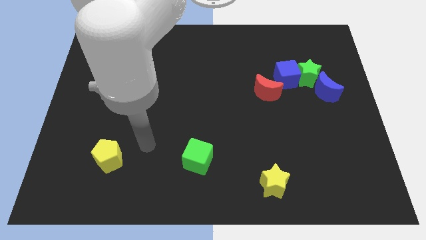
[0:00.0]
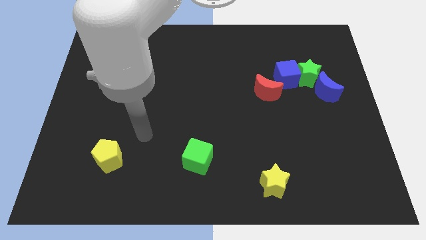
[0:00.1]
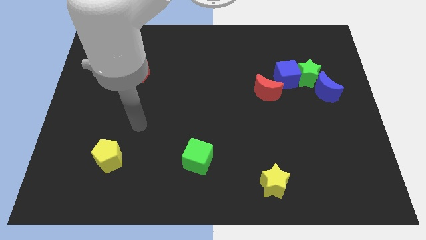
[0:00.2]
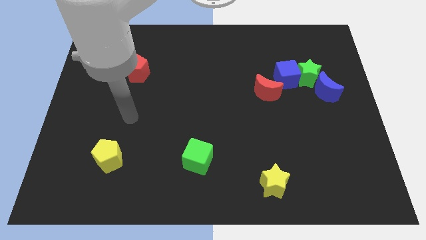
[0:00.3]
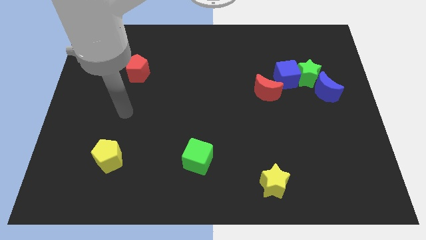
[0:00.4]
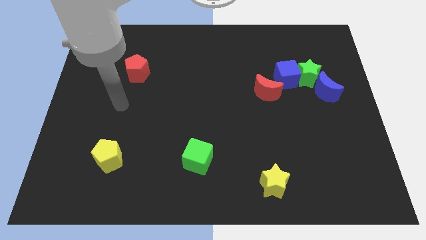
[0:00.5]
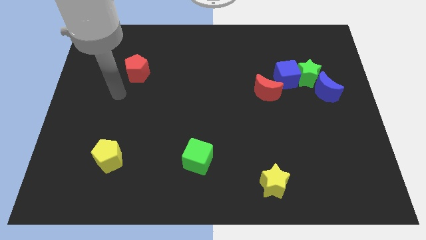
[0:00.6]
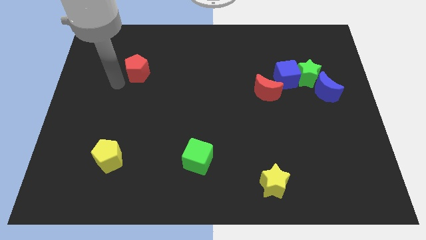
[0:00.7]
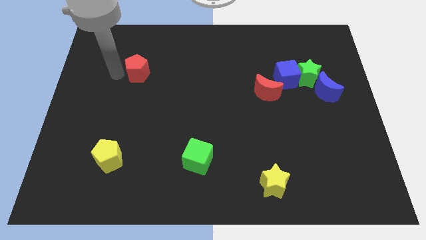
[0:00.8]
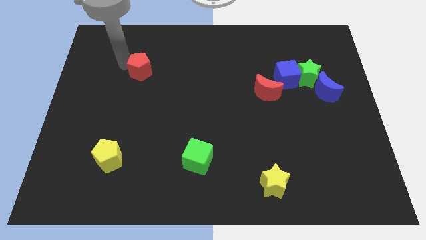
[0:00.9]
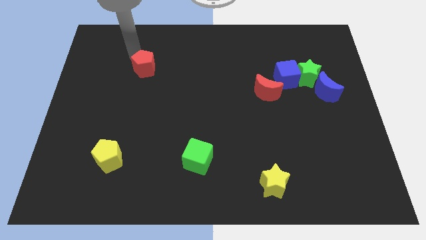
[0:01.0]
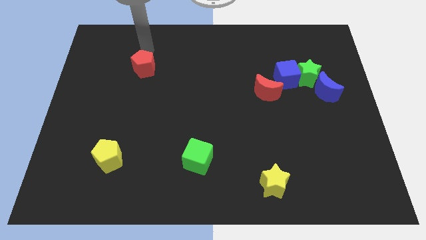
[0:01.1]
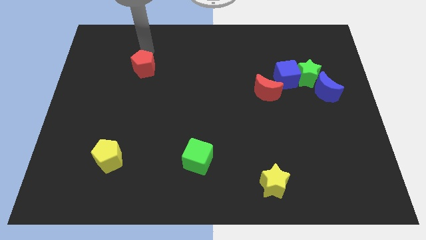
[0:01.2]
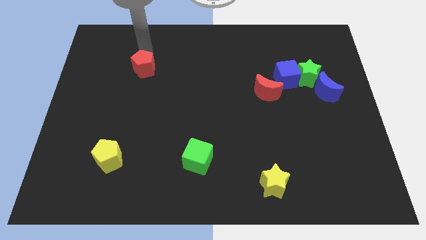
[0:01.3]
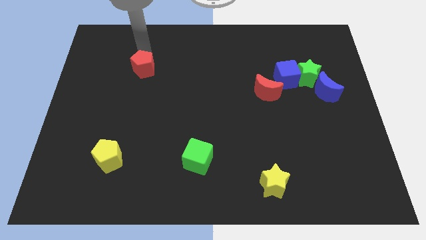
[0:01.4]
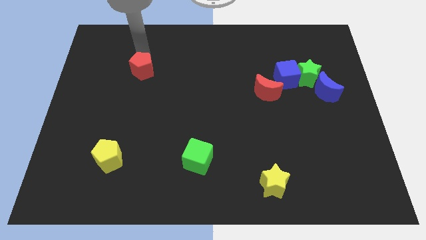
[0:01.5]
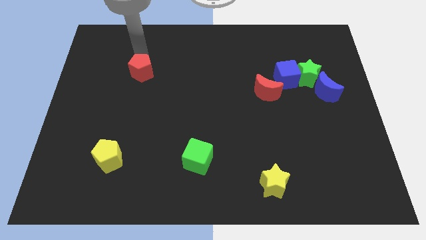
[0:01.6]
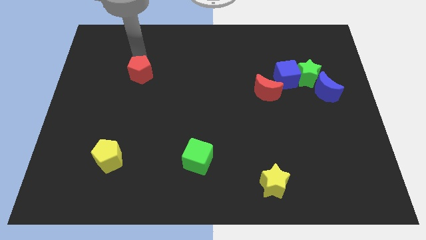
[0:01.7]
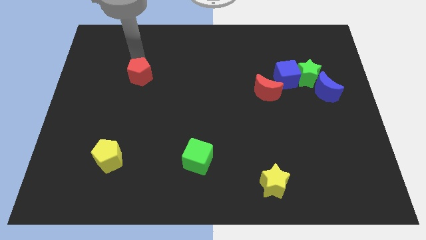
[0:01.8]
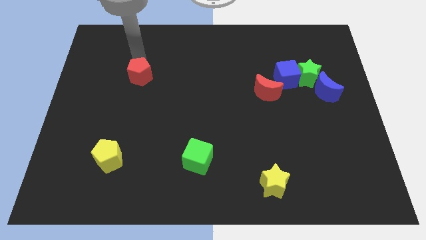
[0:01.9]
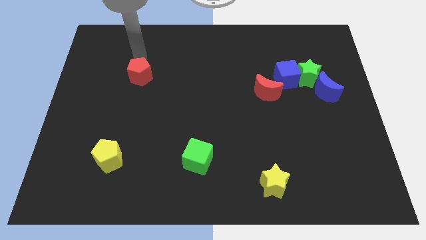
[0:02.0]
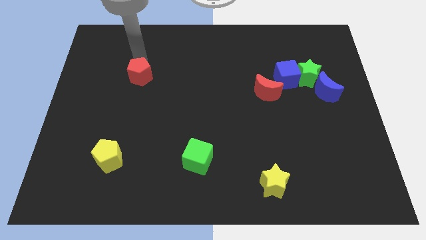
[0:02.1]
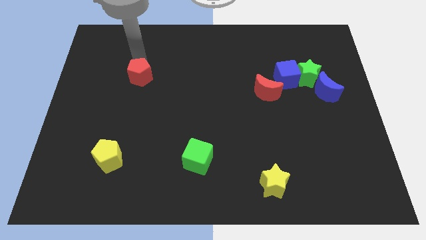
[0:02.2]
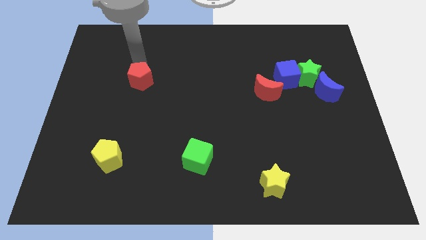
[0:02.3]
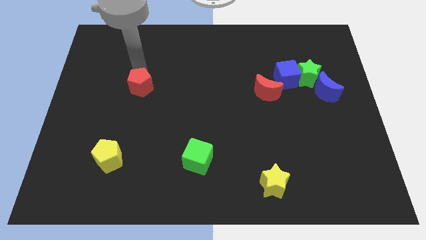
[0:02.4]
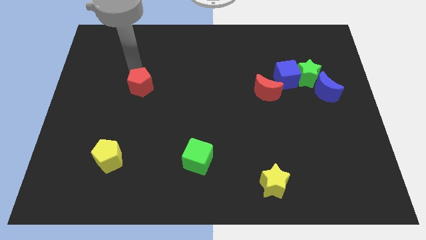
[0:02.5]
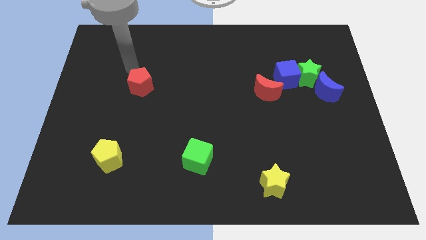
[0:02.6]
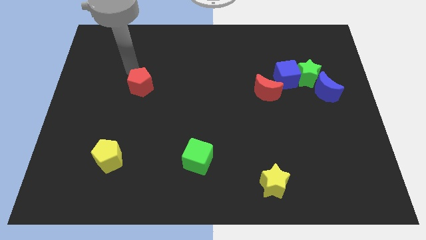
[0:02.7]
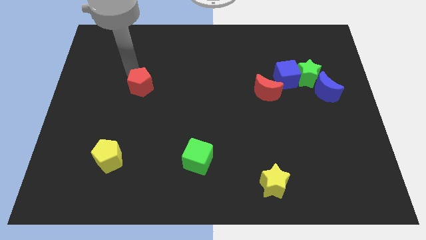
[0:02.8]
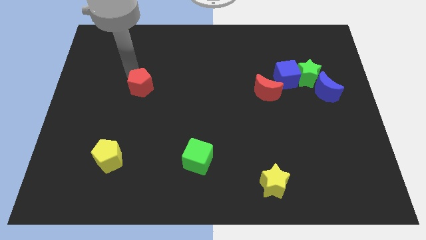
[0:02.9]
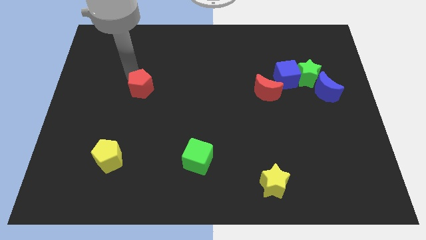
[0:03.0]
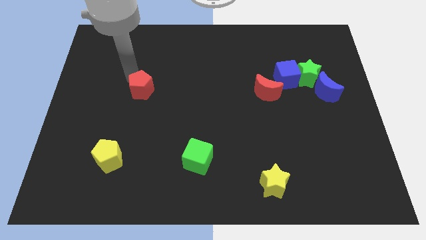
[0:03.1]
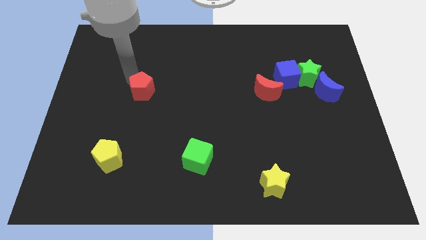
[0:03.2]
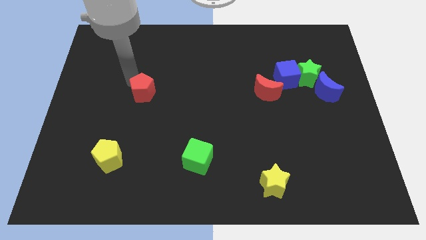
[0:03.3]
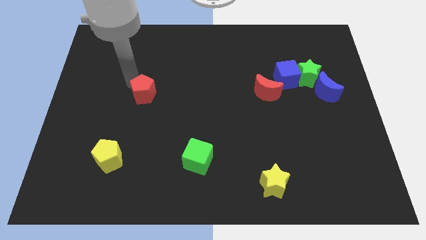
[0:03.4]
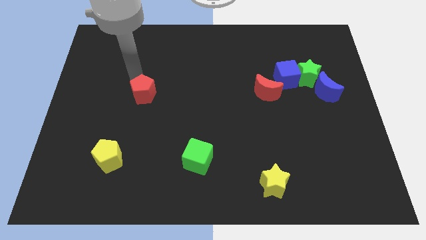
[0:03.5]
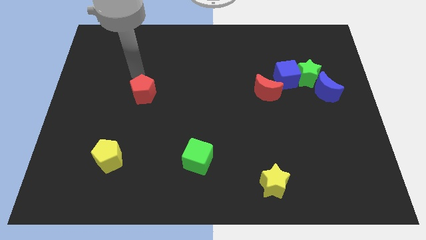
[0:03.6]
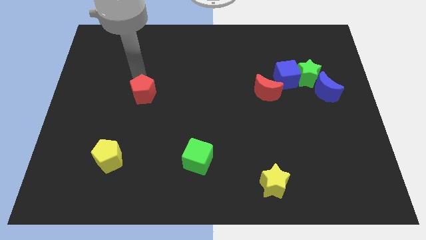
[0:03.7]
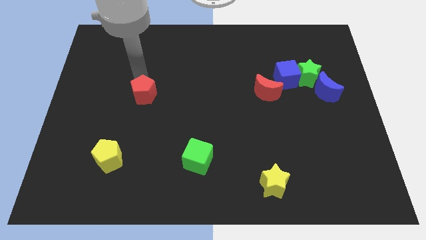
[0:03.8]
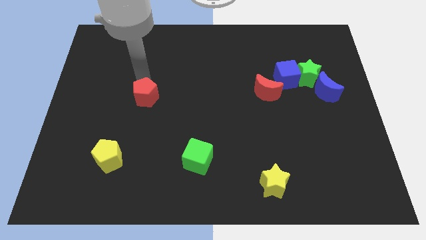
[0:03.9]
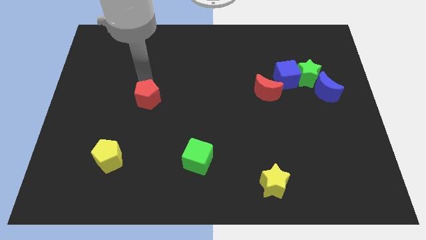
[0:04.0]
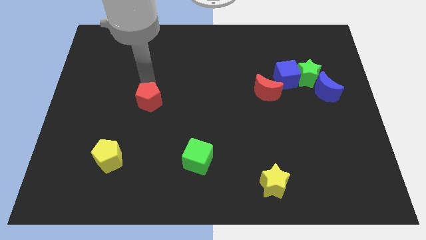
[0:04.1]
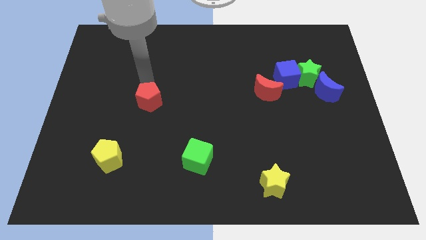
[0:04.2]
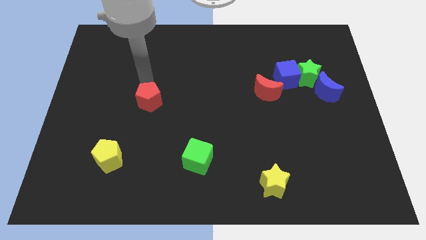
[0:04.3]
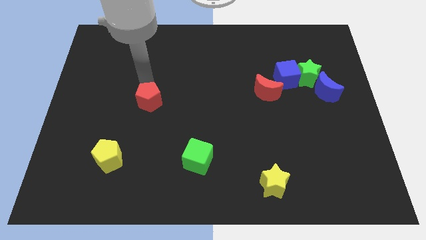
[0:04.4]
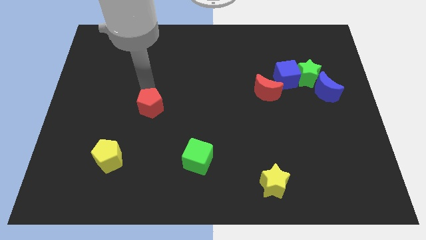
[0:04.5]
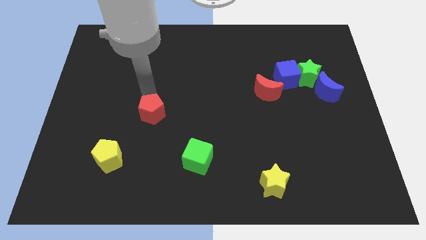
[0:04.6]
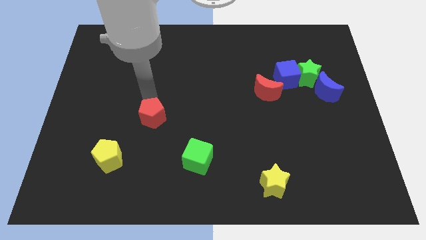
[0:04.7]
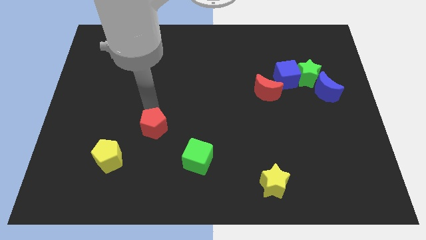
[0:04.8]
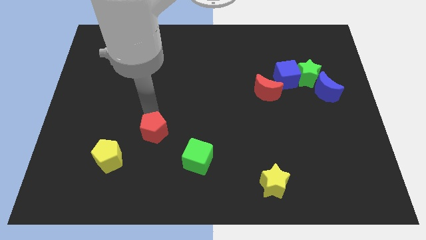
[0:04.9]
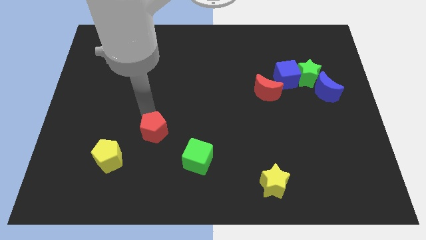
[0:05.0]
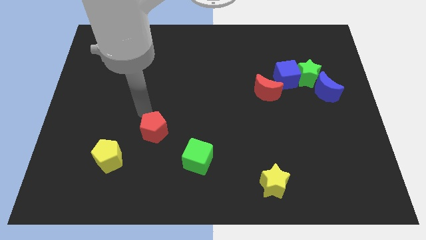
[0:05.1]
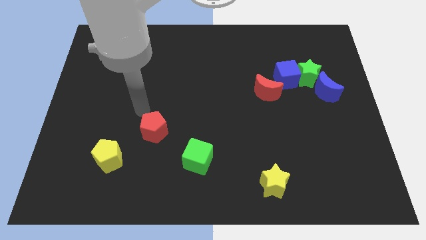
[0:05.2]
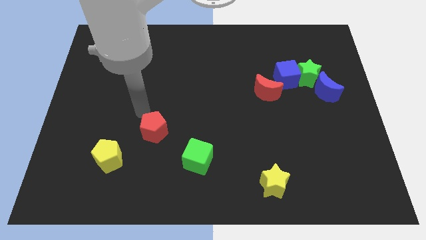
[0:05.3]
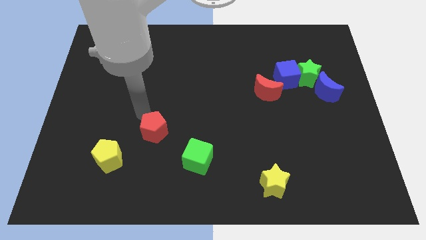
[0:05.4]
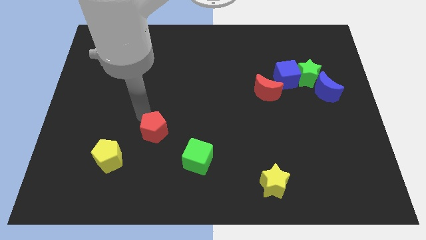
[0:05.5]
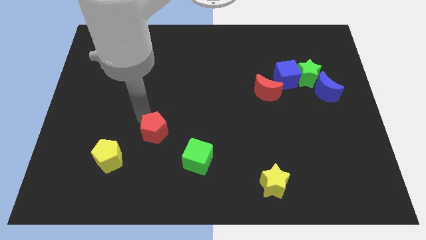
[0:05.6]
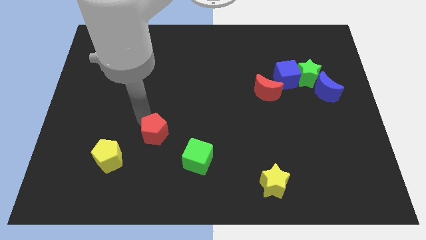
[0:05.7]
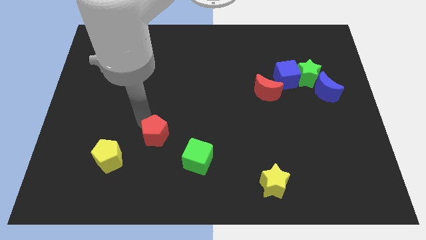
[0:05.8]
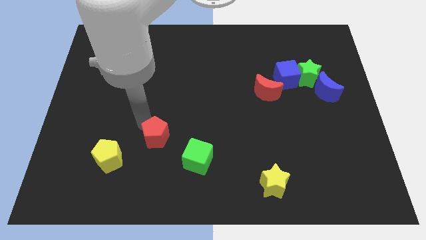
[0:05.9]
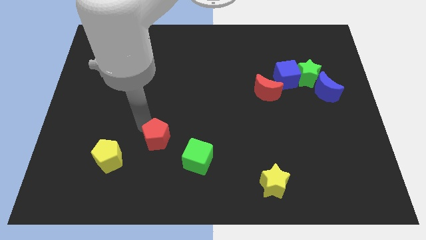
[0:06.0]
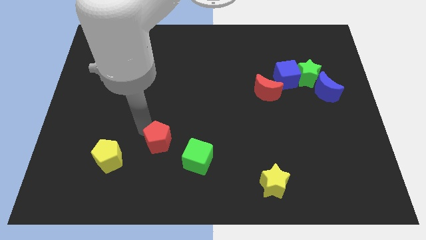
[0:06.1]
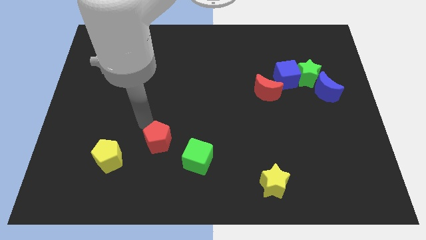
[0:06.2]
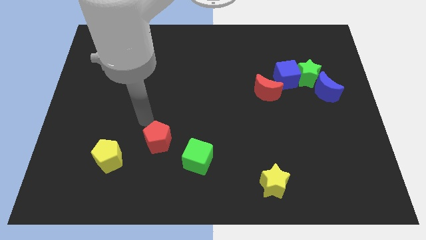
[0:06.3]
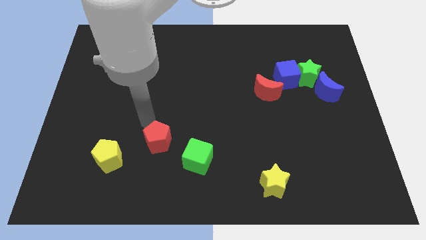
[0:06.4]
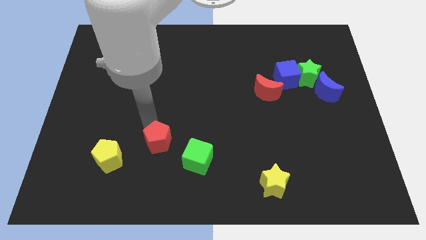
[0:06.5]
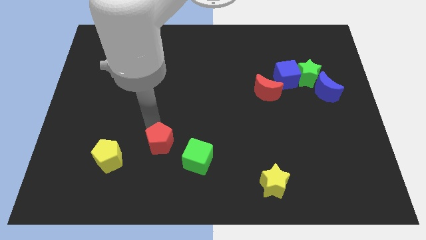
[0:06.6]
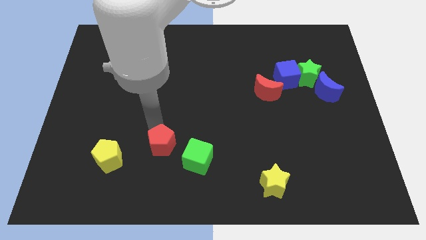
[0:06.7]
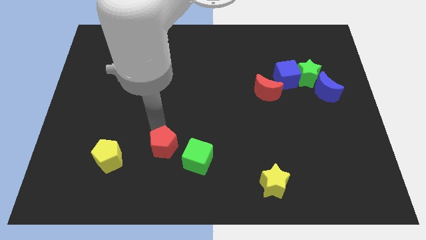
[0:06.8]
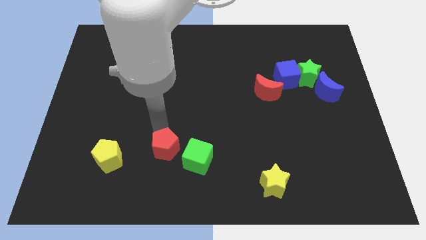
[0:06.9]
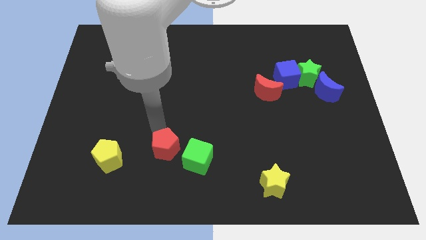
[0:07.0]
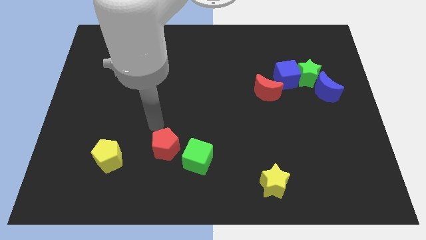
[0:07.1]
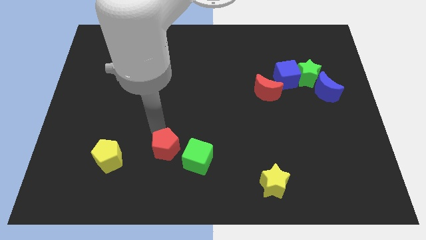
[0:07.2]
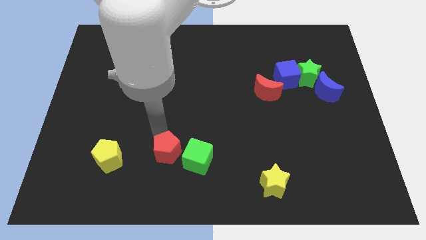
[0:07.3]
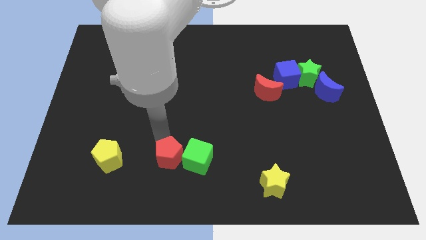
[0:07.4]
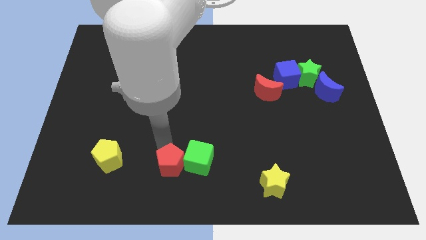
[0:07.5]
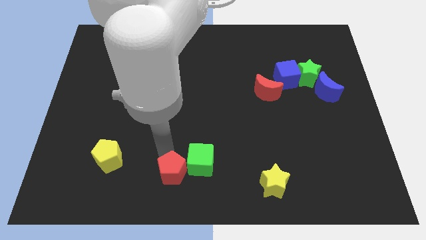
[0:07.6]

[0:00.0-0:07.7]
slide the red pentagon to the bottom side
